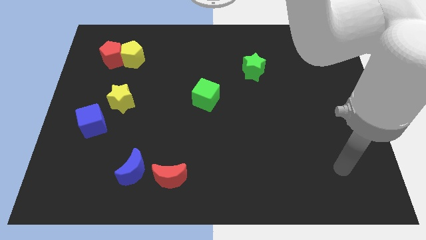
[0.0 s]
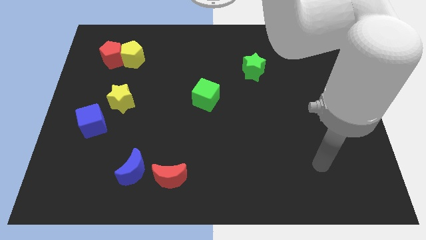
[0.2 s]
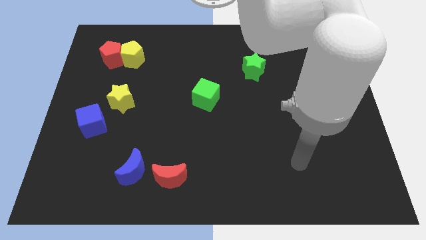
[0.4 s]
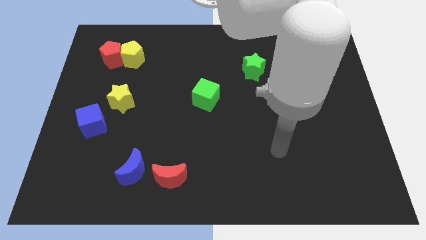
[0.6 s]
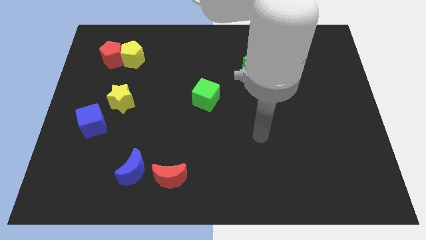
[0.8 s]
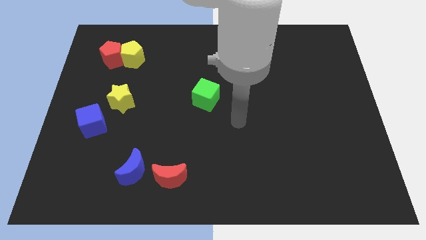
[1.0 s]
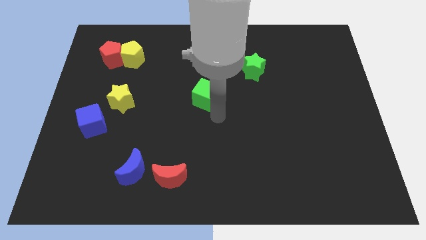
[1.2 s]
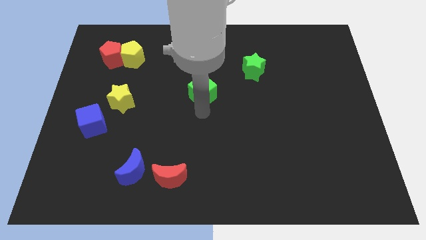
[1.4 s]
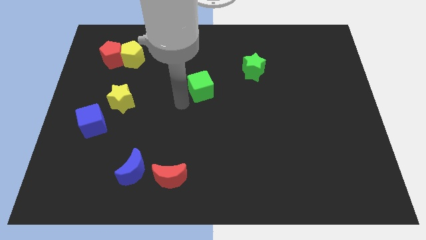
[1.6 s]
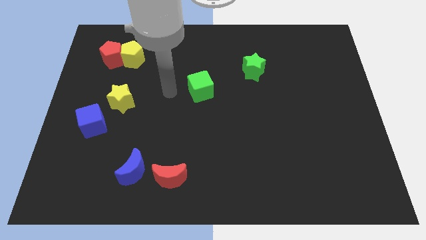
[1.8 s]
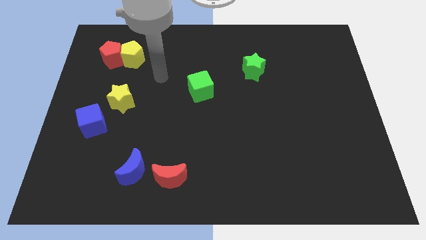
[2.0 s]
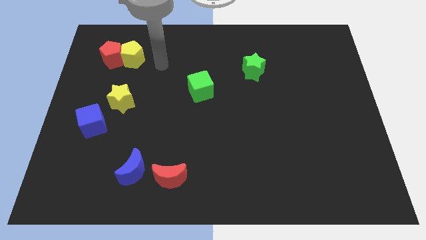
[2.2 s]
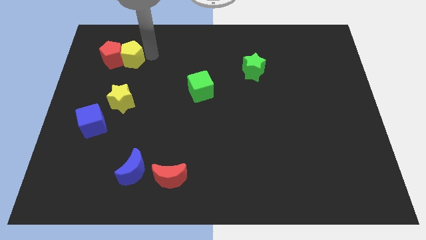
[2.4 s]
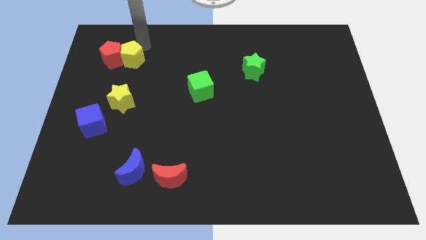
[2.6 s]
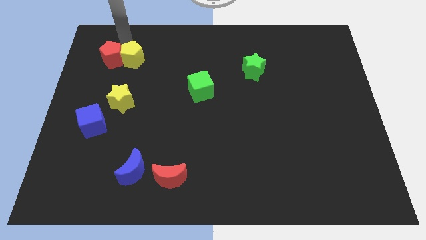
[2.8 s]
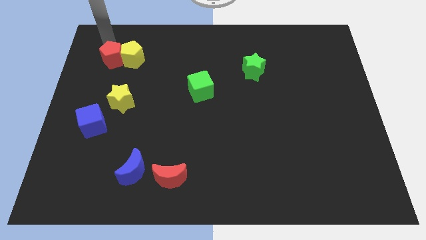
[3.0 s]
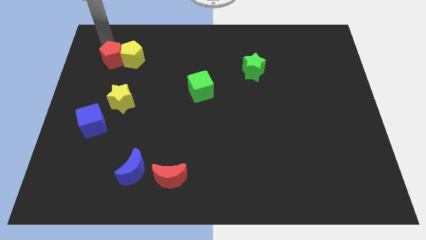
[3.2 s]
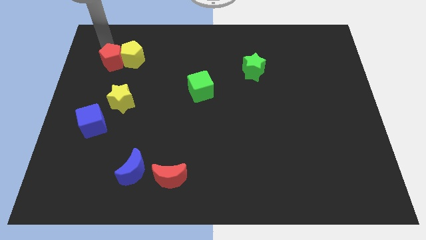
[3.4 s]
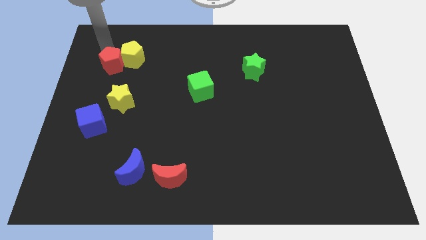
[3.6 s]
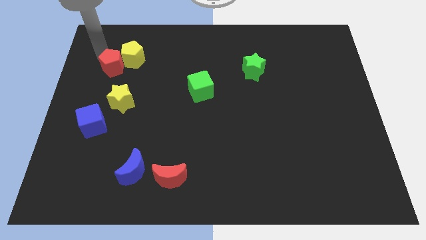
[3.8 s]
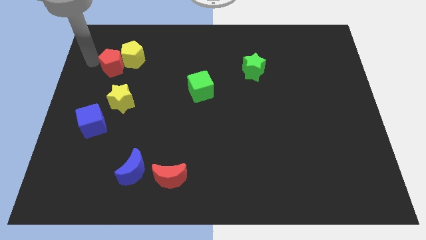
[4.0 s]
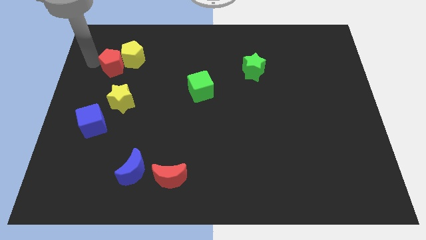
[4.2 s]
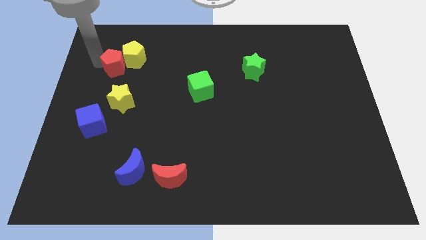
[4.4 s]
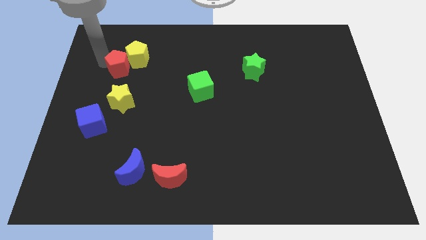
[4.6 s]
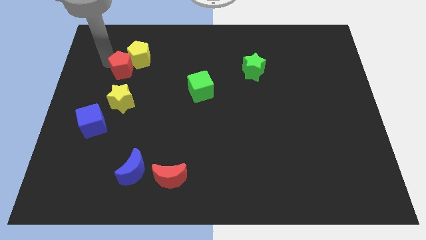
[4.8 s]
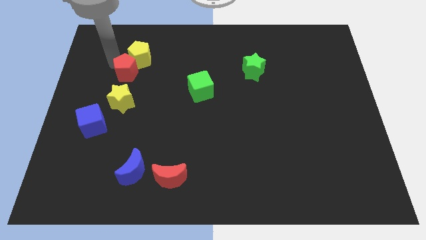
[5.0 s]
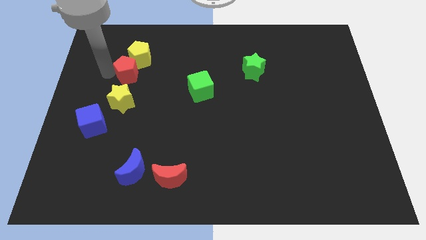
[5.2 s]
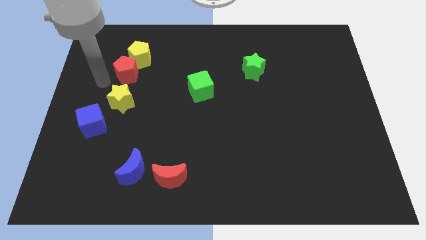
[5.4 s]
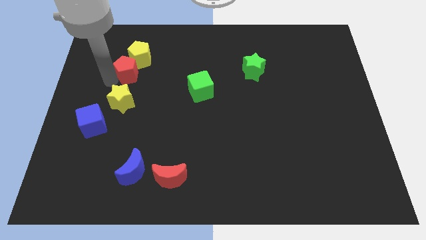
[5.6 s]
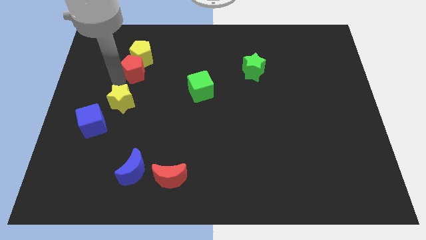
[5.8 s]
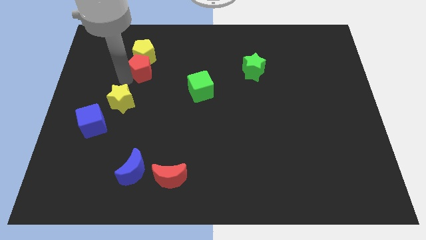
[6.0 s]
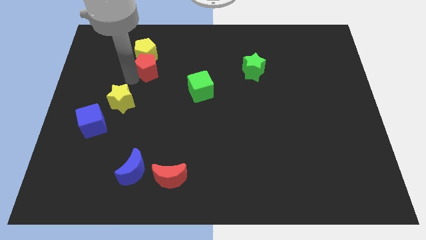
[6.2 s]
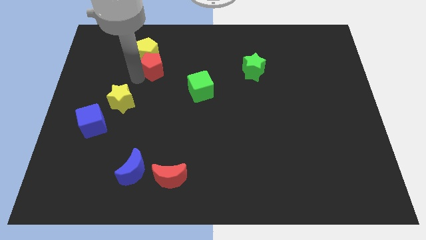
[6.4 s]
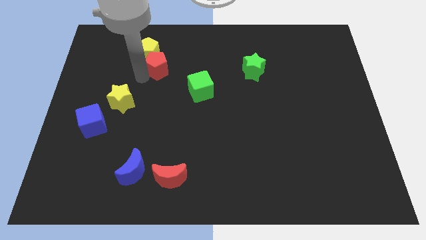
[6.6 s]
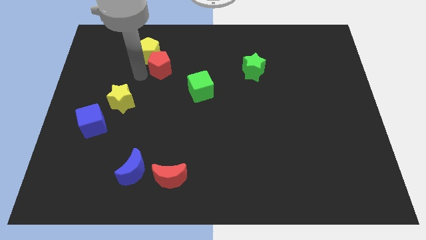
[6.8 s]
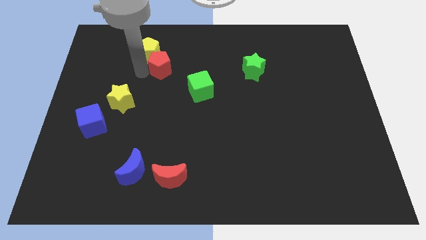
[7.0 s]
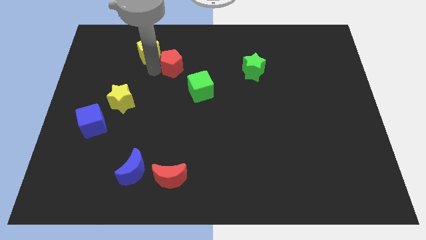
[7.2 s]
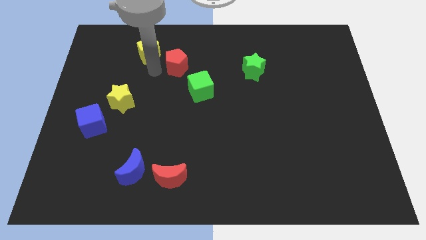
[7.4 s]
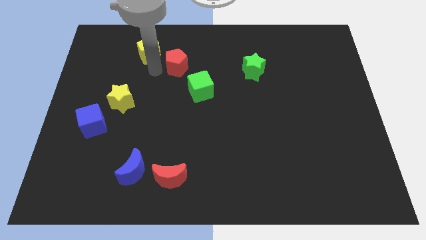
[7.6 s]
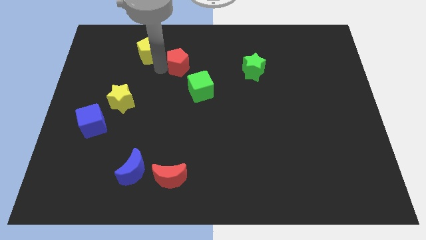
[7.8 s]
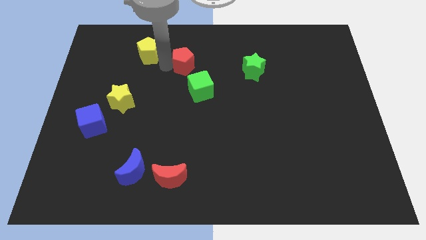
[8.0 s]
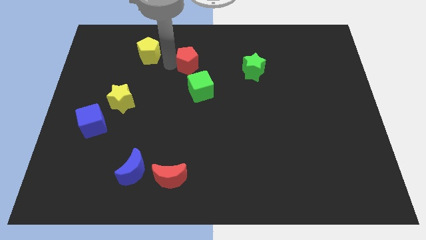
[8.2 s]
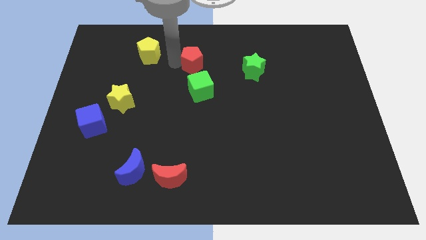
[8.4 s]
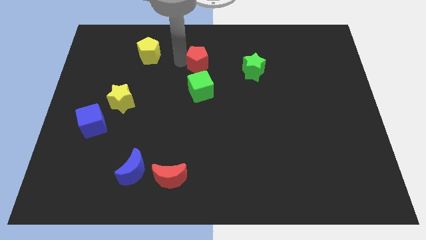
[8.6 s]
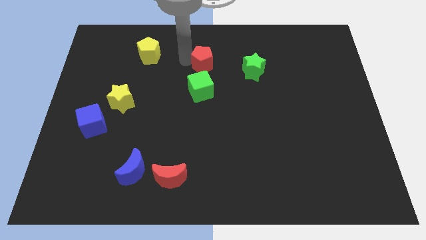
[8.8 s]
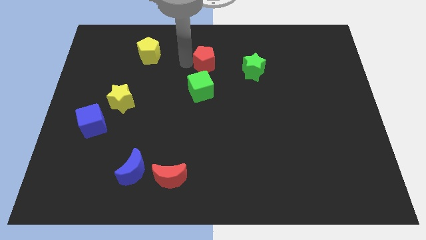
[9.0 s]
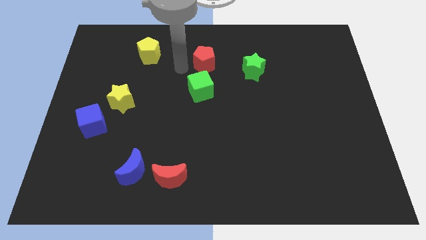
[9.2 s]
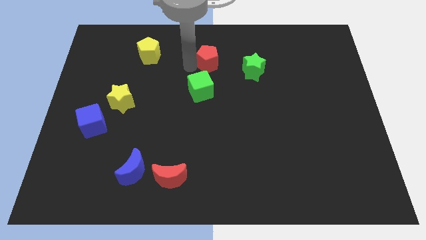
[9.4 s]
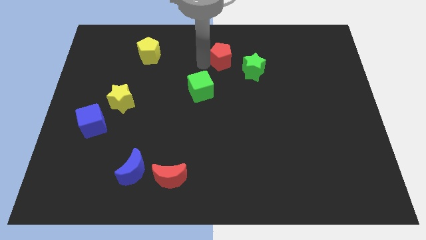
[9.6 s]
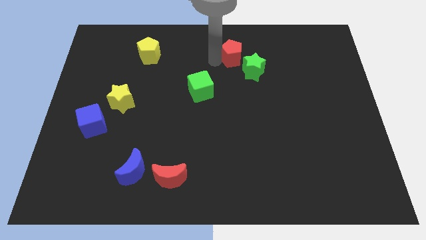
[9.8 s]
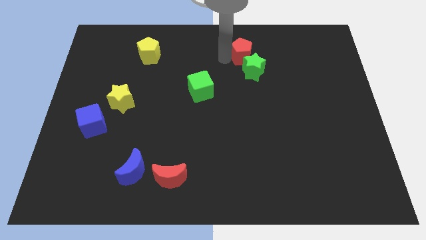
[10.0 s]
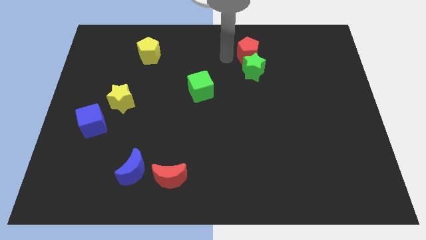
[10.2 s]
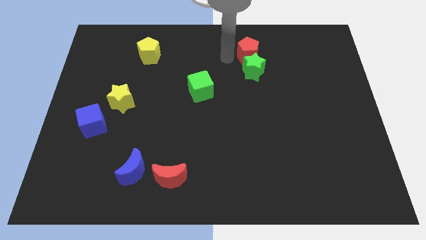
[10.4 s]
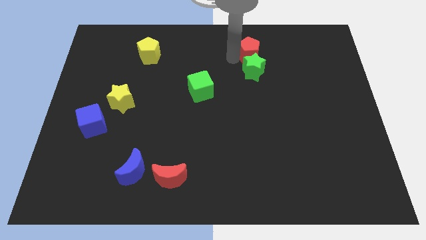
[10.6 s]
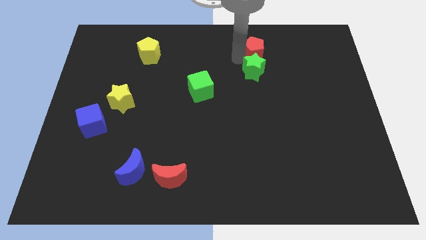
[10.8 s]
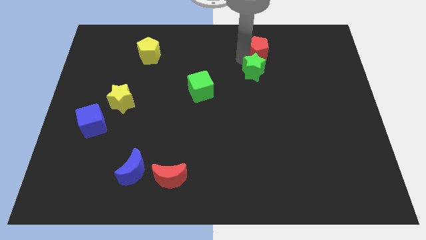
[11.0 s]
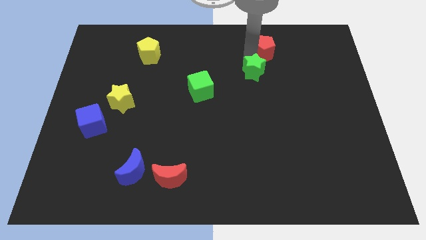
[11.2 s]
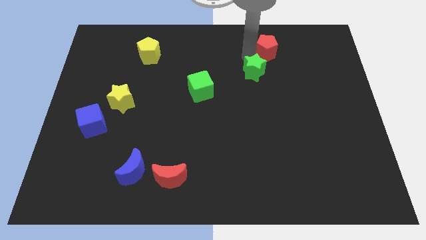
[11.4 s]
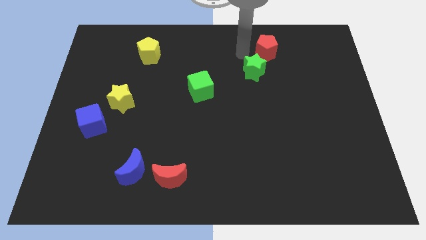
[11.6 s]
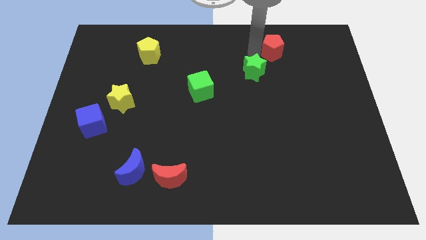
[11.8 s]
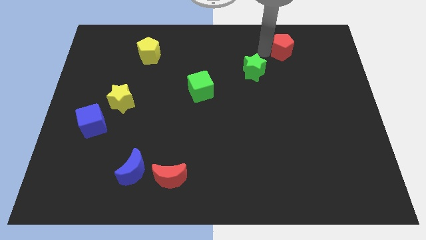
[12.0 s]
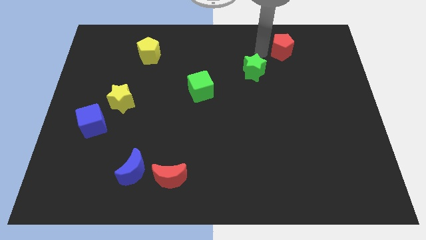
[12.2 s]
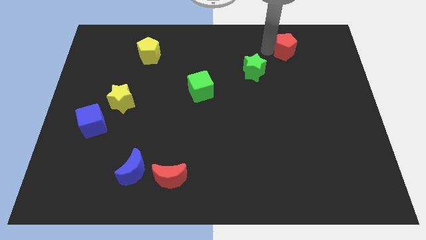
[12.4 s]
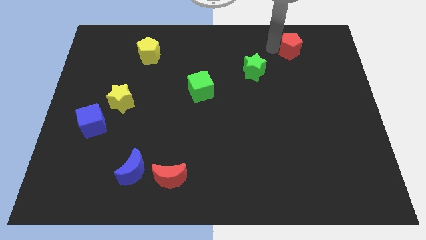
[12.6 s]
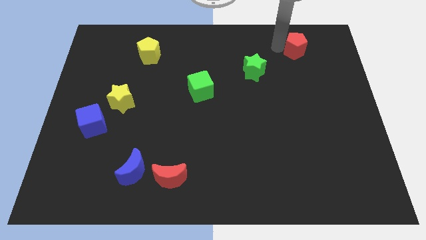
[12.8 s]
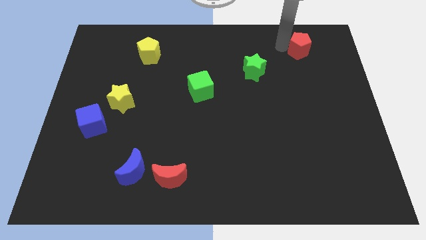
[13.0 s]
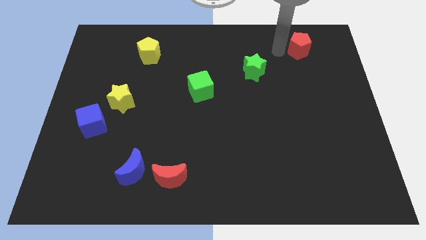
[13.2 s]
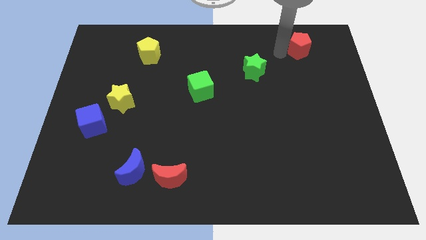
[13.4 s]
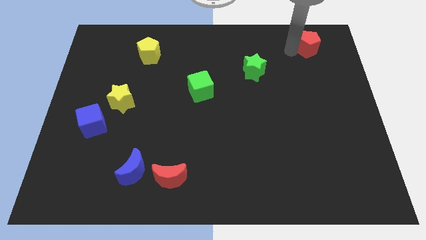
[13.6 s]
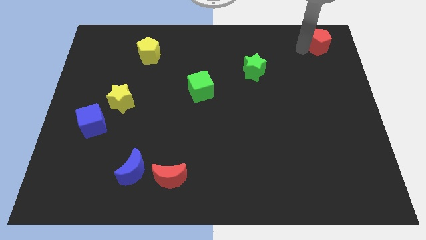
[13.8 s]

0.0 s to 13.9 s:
push the red pentagon to the top right
